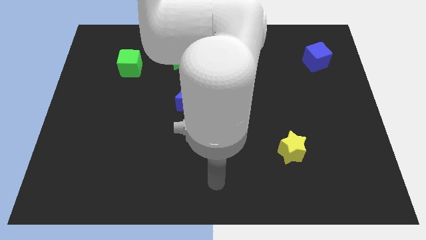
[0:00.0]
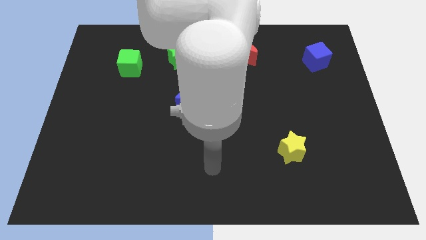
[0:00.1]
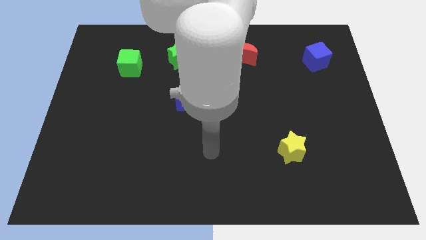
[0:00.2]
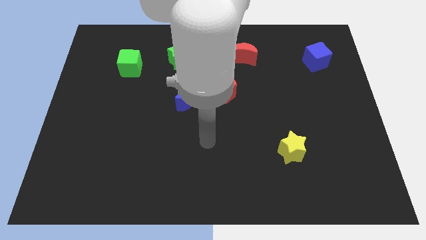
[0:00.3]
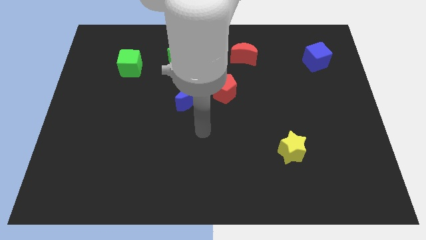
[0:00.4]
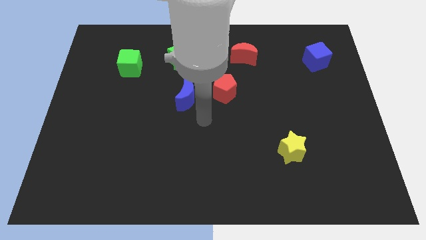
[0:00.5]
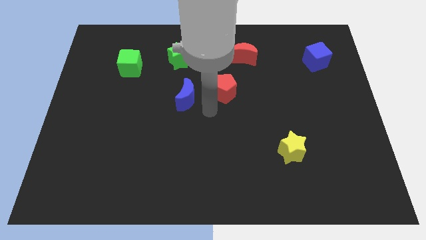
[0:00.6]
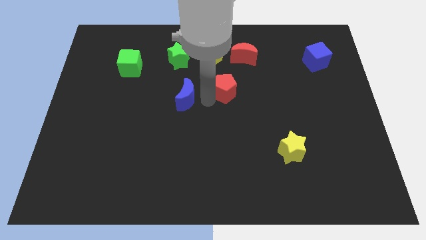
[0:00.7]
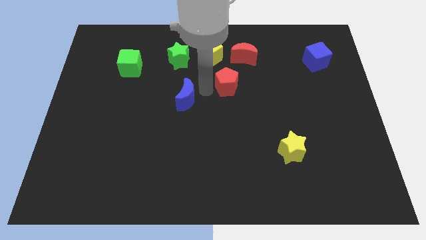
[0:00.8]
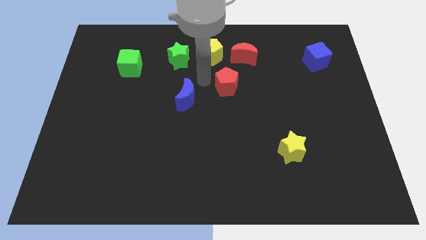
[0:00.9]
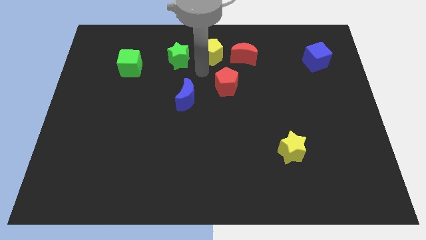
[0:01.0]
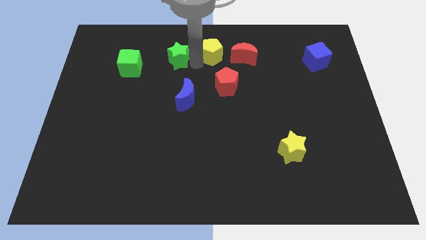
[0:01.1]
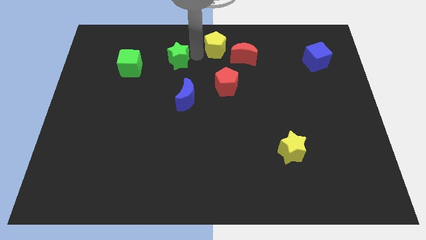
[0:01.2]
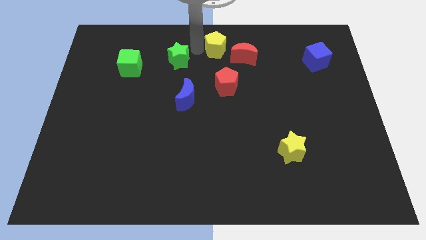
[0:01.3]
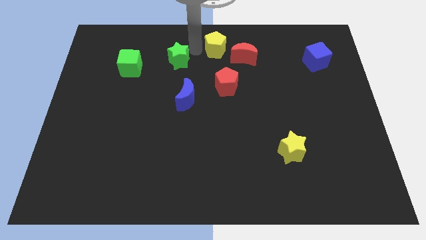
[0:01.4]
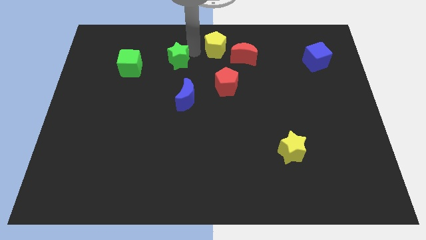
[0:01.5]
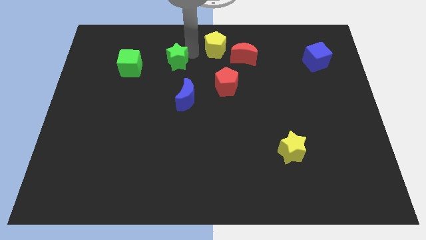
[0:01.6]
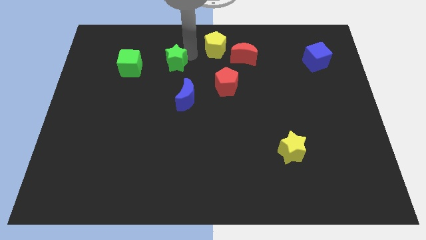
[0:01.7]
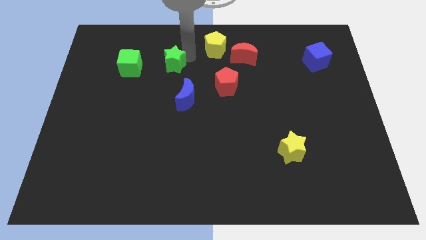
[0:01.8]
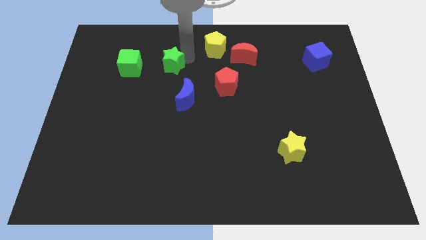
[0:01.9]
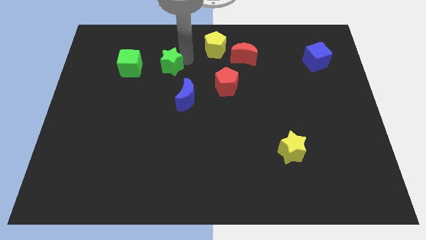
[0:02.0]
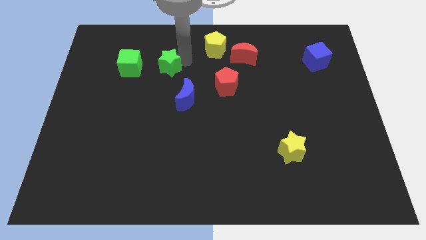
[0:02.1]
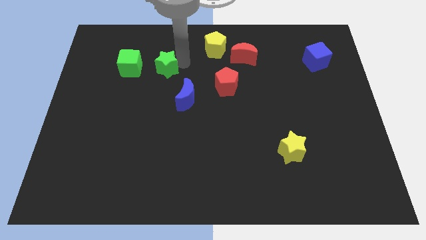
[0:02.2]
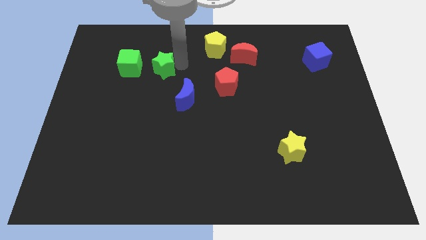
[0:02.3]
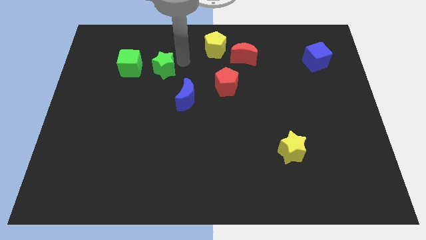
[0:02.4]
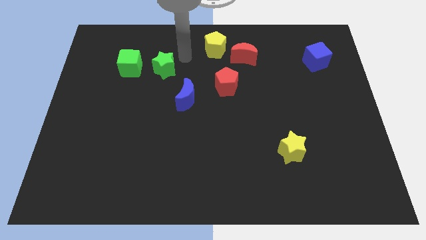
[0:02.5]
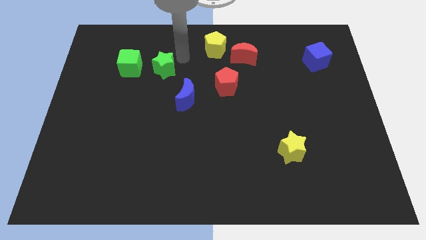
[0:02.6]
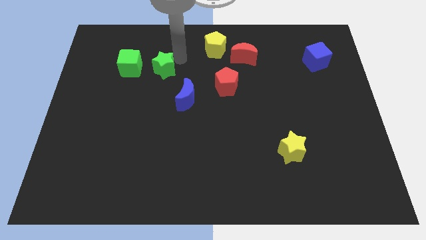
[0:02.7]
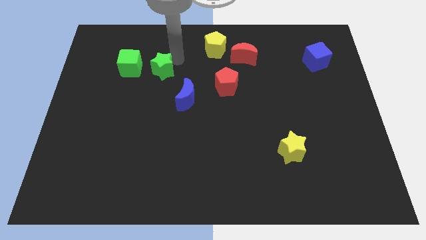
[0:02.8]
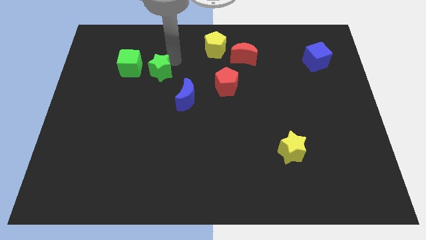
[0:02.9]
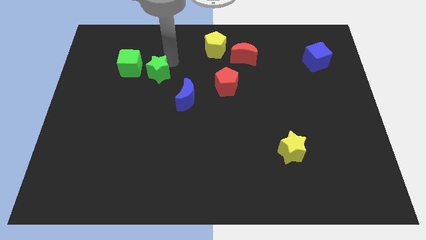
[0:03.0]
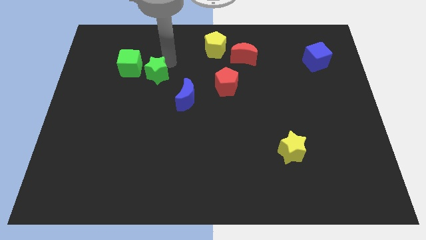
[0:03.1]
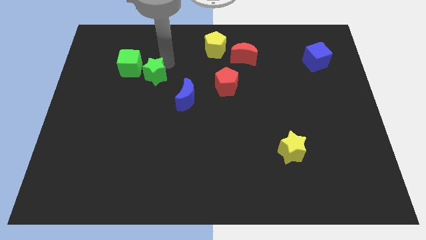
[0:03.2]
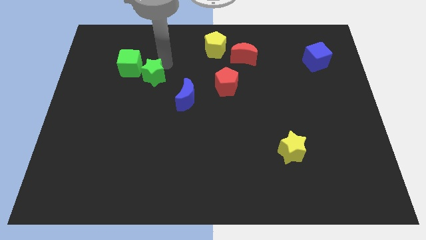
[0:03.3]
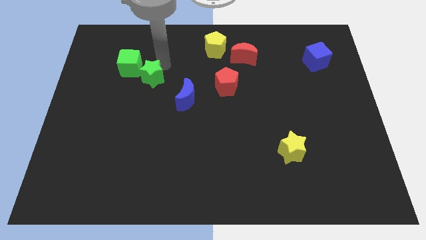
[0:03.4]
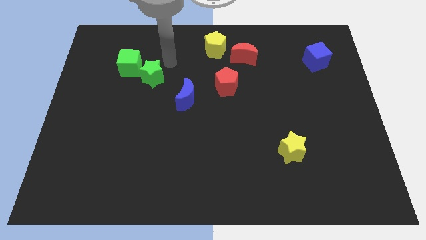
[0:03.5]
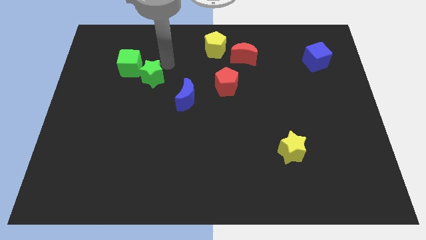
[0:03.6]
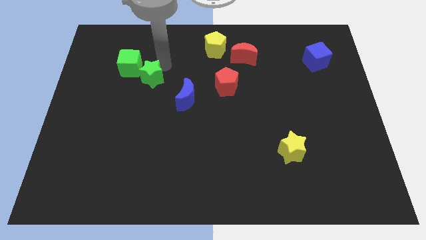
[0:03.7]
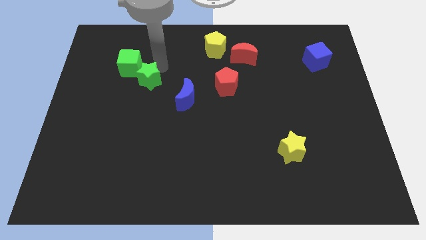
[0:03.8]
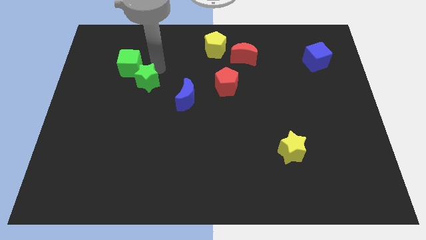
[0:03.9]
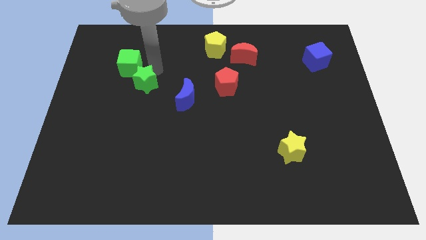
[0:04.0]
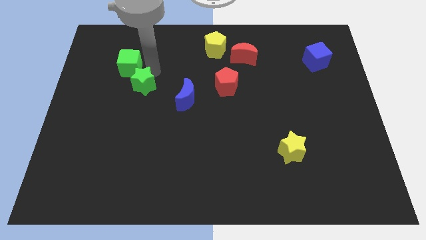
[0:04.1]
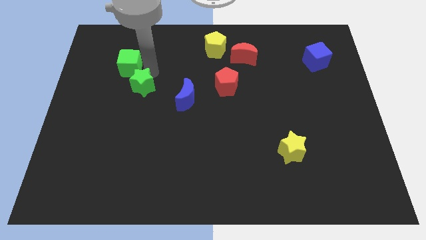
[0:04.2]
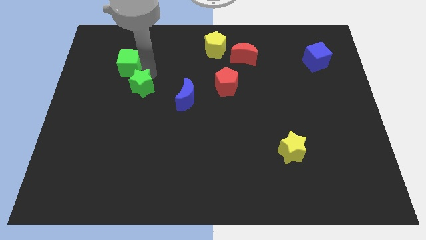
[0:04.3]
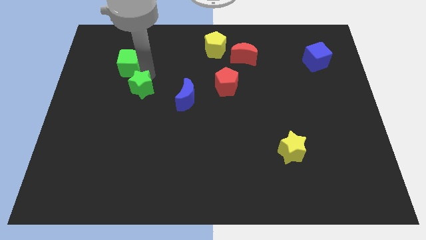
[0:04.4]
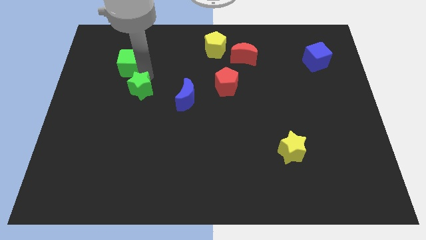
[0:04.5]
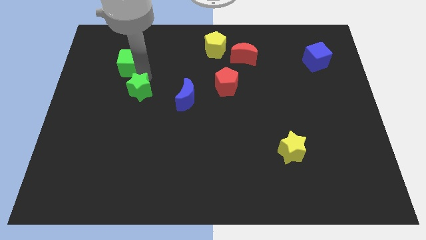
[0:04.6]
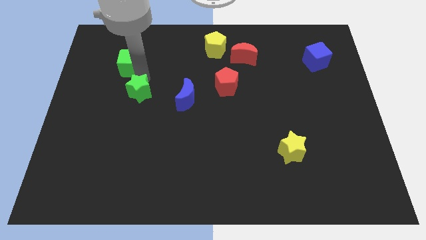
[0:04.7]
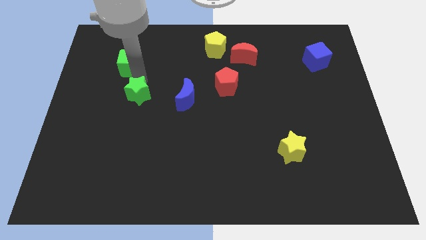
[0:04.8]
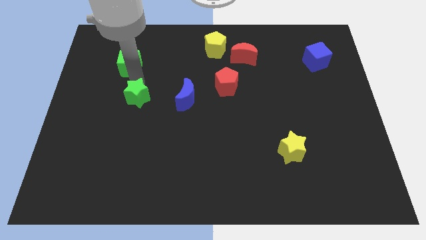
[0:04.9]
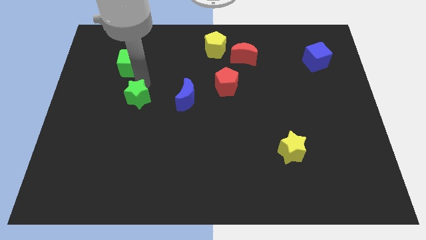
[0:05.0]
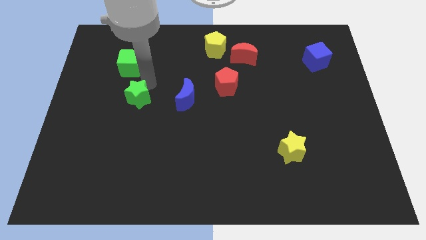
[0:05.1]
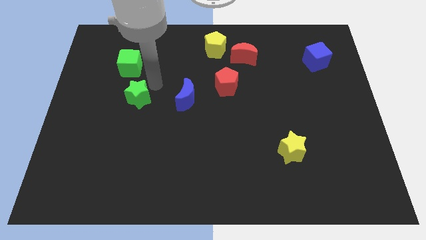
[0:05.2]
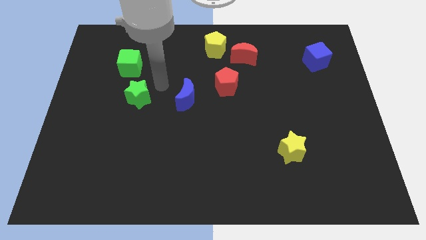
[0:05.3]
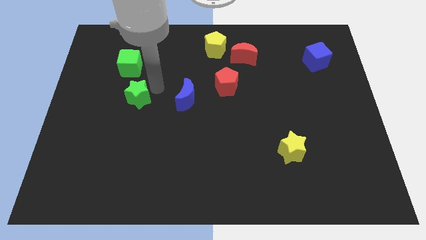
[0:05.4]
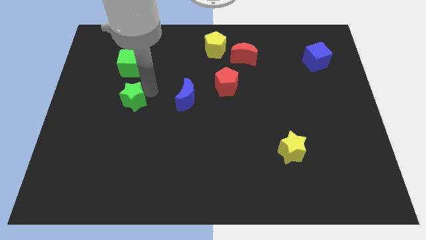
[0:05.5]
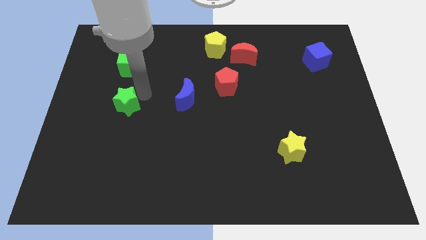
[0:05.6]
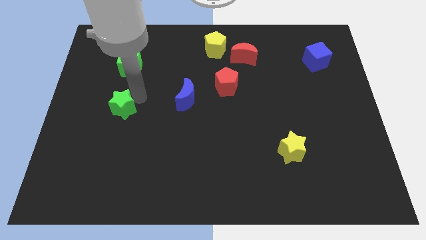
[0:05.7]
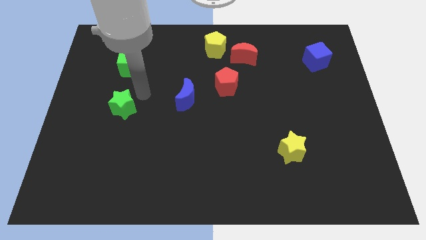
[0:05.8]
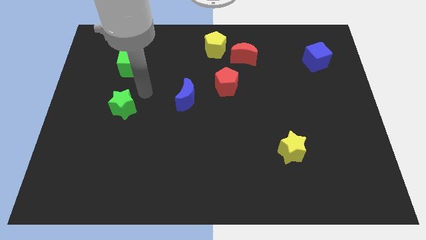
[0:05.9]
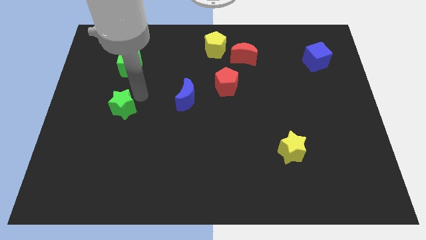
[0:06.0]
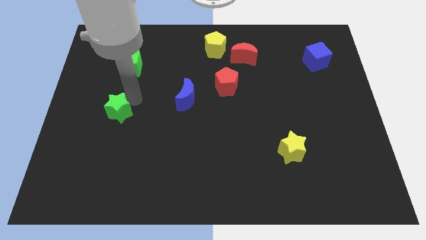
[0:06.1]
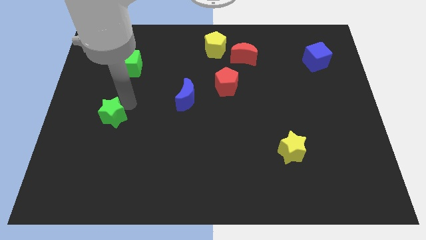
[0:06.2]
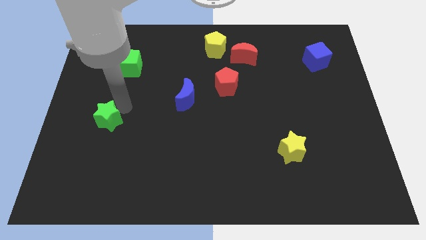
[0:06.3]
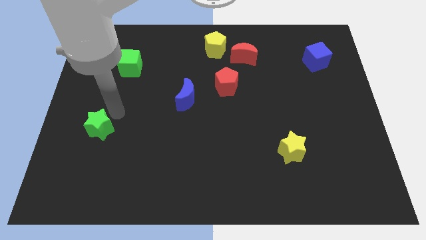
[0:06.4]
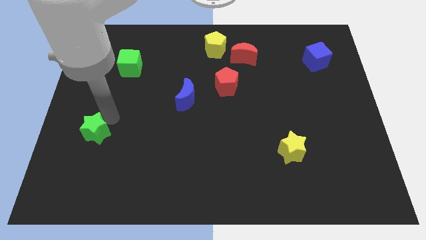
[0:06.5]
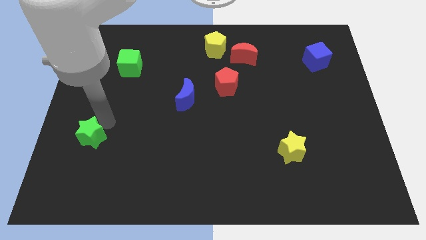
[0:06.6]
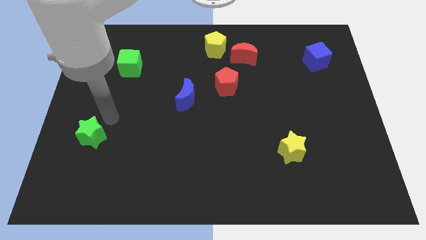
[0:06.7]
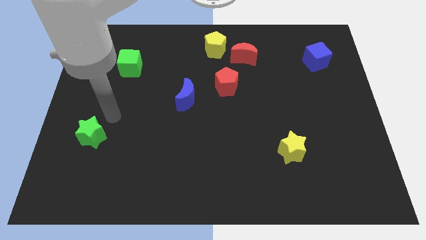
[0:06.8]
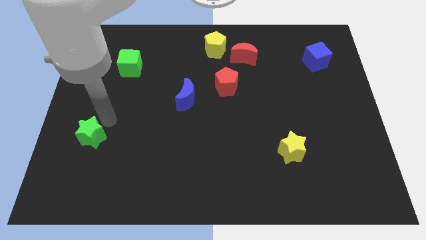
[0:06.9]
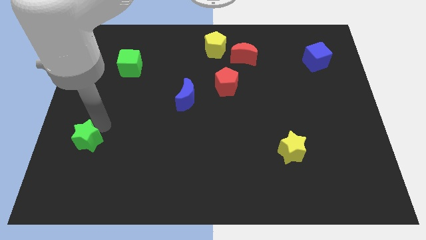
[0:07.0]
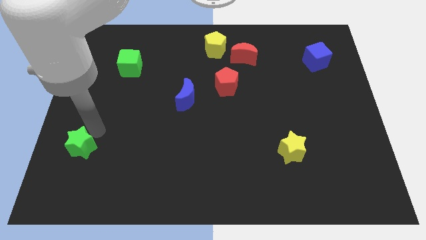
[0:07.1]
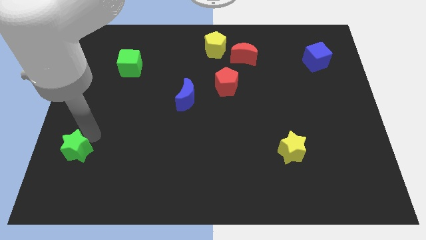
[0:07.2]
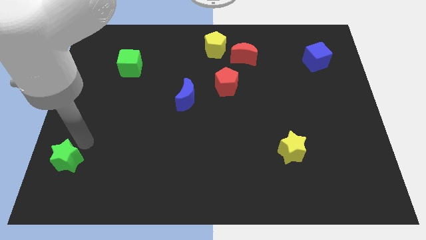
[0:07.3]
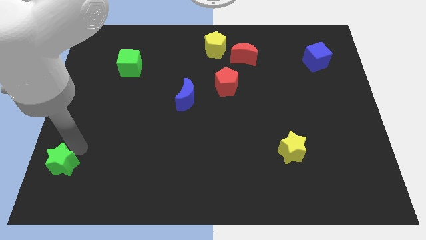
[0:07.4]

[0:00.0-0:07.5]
push the green star to the lower left corner

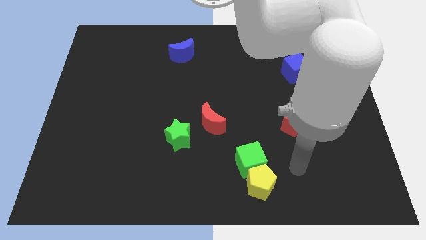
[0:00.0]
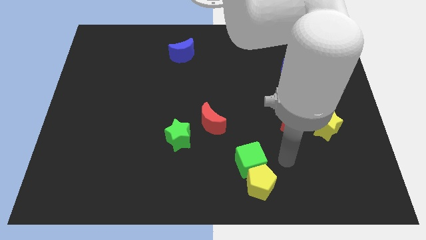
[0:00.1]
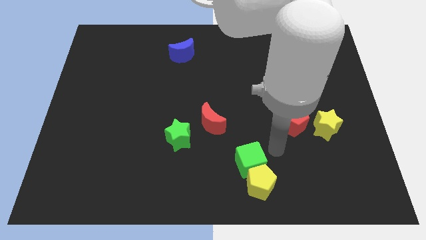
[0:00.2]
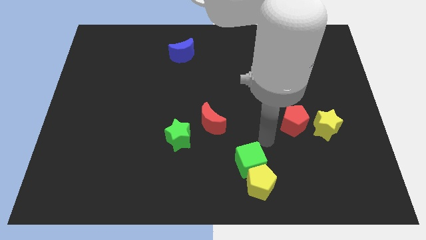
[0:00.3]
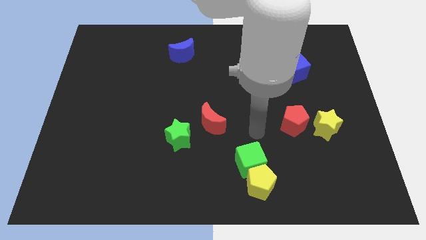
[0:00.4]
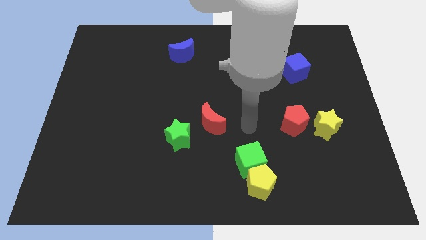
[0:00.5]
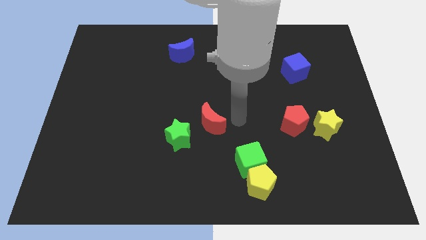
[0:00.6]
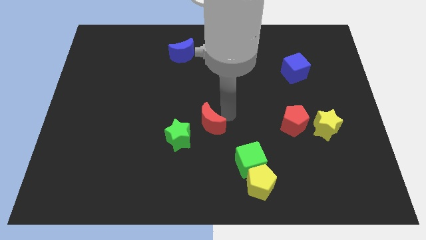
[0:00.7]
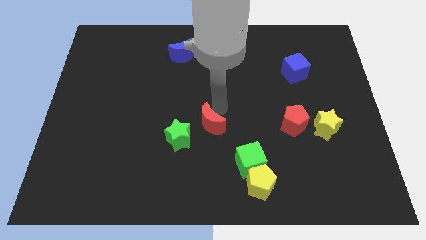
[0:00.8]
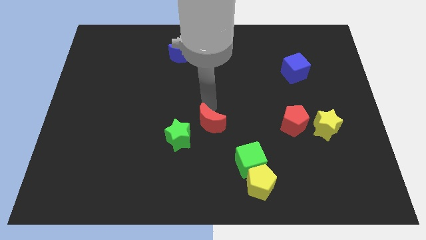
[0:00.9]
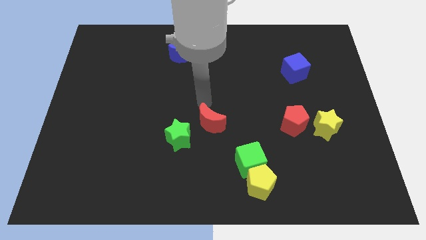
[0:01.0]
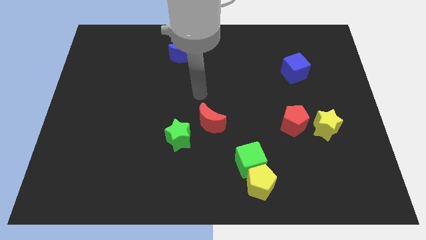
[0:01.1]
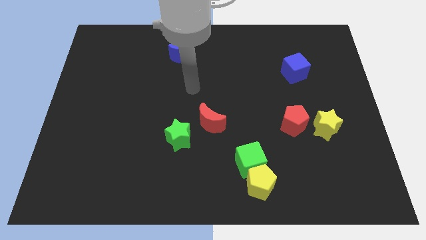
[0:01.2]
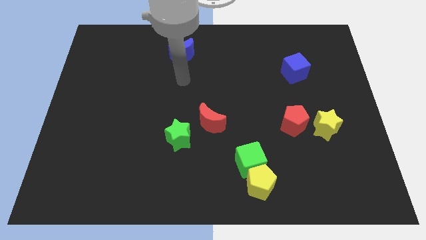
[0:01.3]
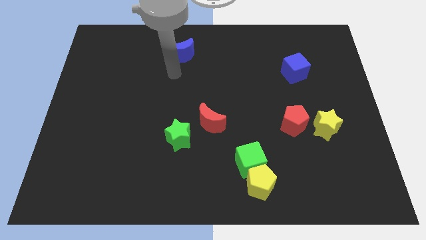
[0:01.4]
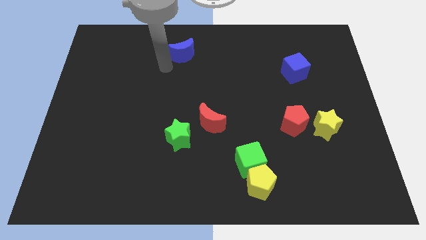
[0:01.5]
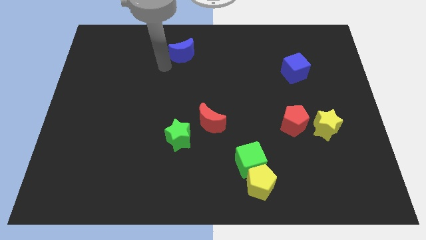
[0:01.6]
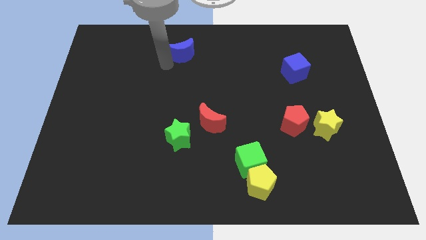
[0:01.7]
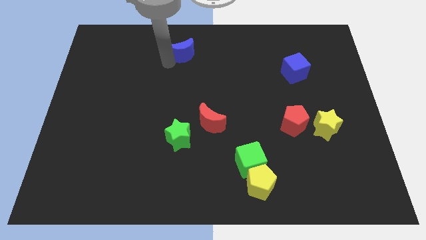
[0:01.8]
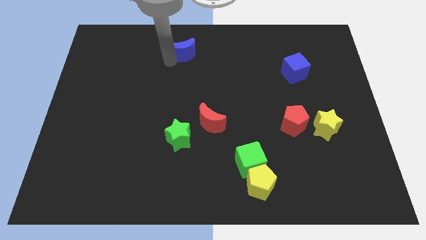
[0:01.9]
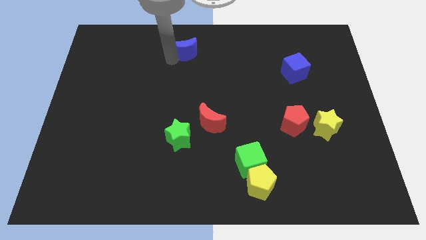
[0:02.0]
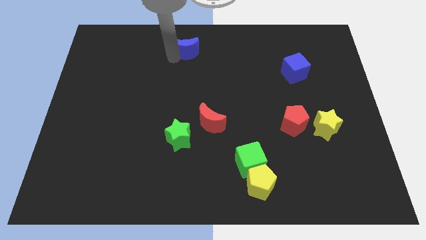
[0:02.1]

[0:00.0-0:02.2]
move the blue moon to the top
